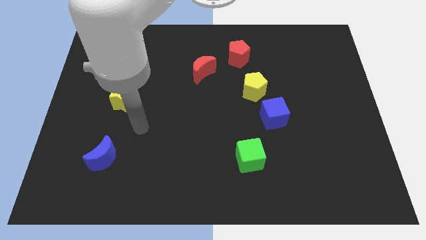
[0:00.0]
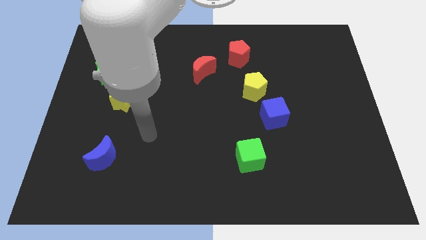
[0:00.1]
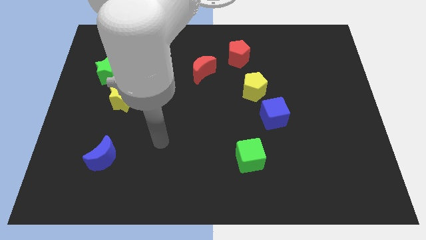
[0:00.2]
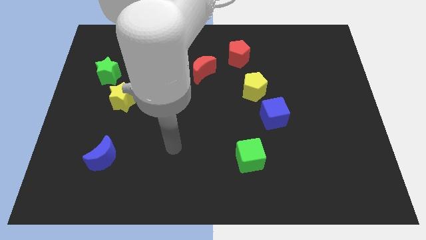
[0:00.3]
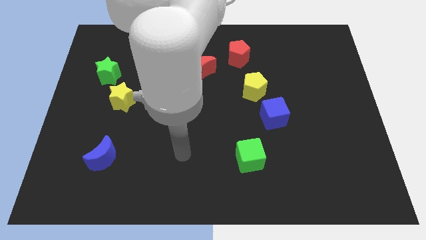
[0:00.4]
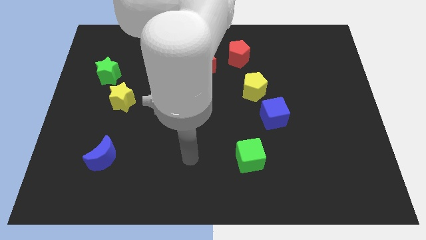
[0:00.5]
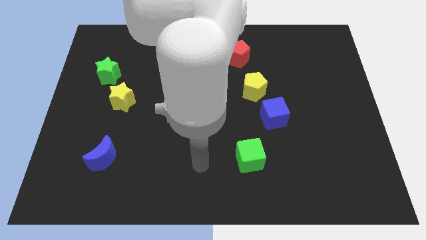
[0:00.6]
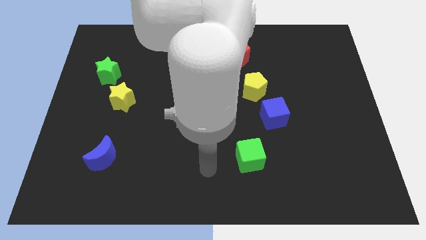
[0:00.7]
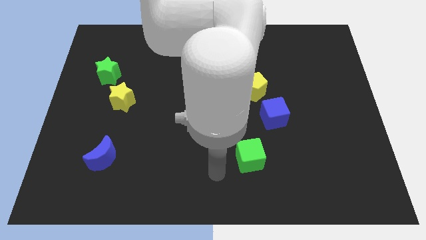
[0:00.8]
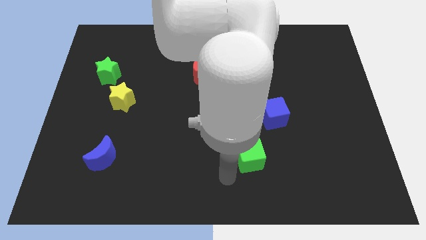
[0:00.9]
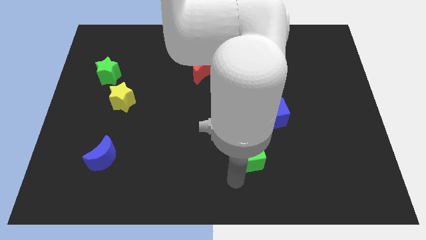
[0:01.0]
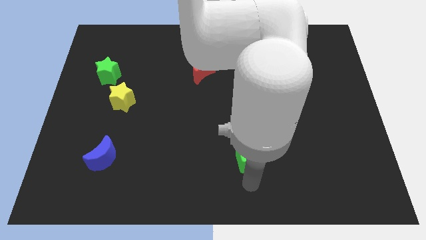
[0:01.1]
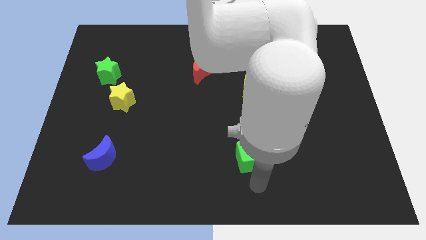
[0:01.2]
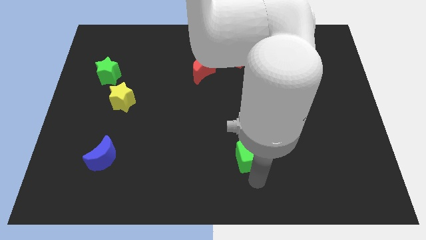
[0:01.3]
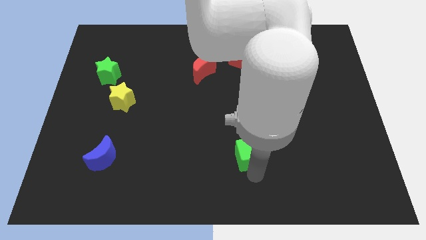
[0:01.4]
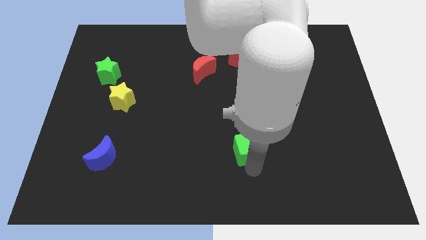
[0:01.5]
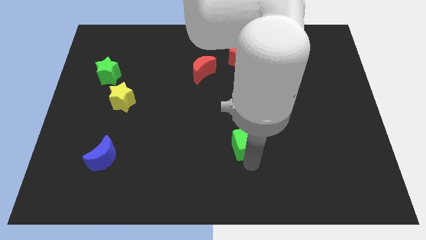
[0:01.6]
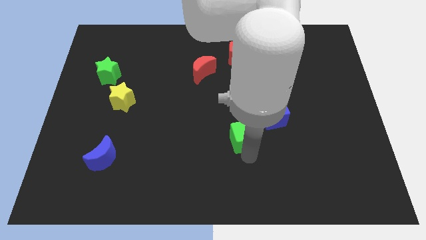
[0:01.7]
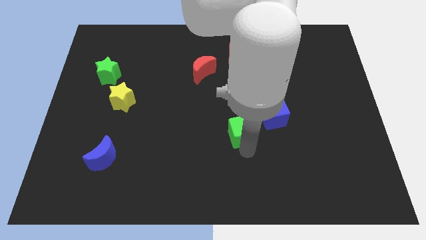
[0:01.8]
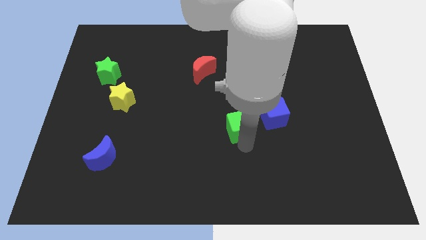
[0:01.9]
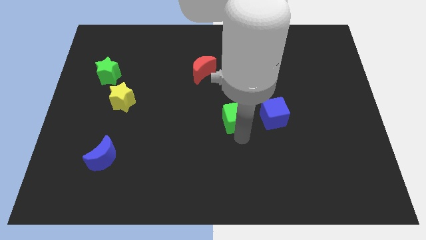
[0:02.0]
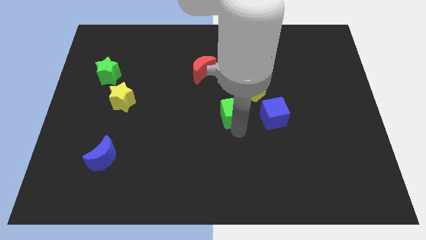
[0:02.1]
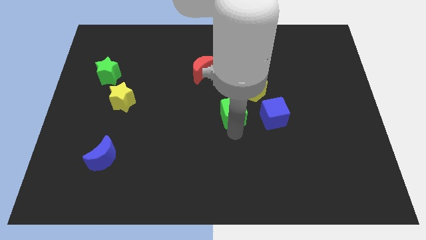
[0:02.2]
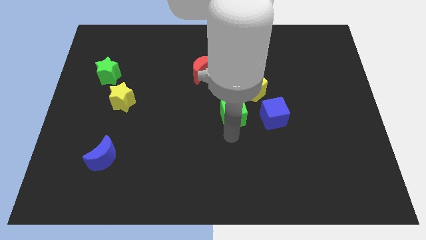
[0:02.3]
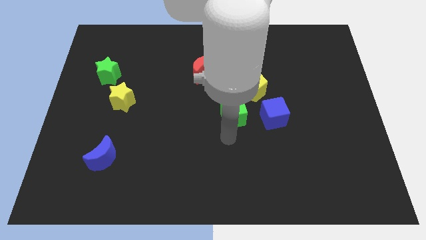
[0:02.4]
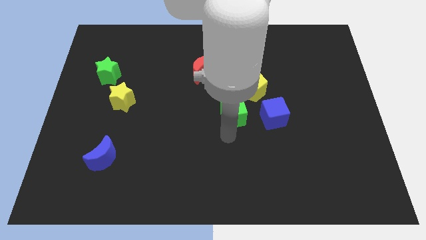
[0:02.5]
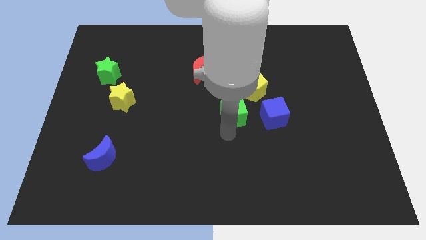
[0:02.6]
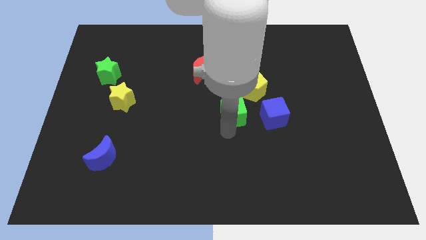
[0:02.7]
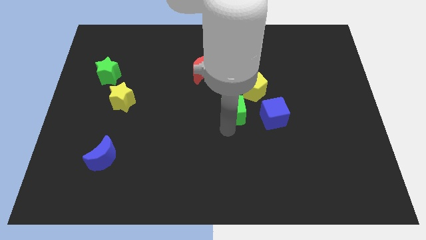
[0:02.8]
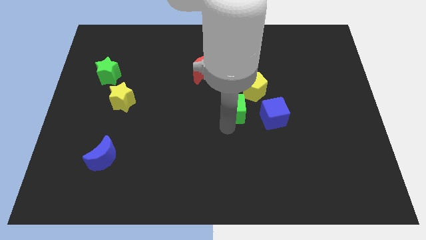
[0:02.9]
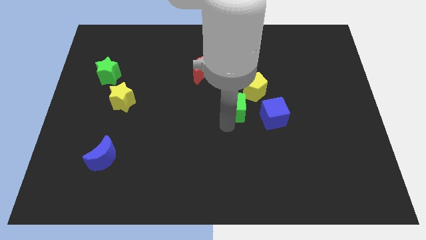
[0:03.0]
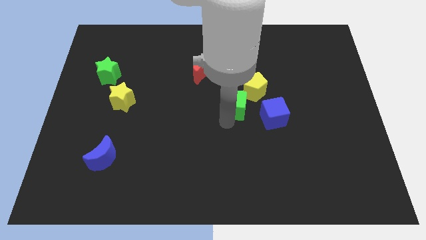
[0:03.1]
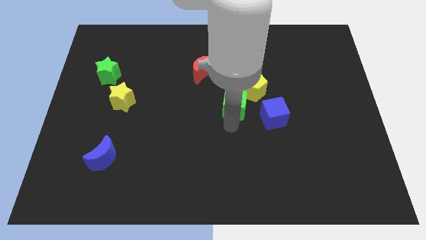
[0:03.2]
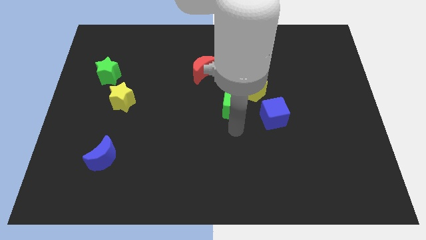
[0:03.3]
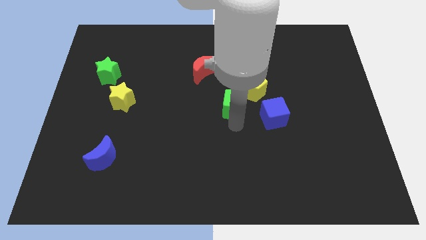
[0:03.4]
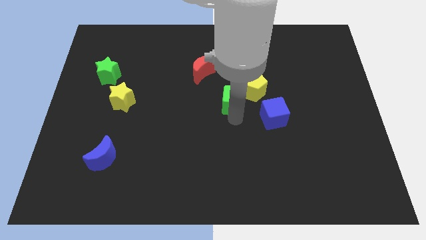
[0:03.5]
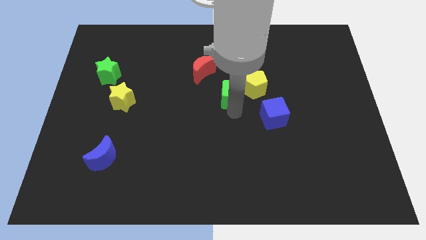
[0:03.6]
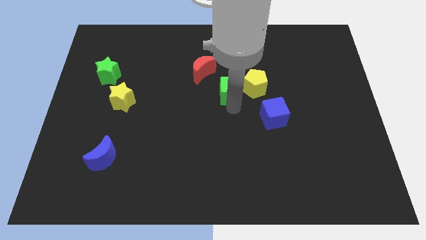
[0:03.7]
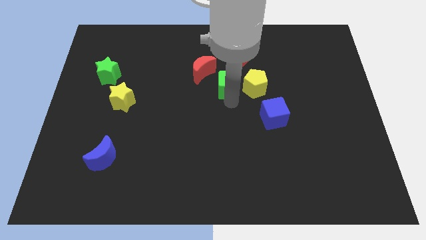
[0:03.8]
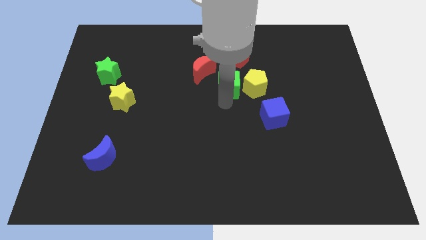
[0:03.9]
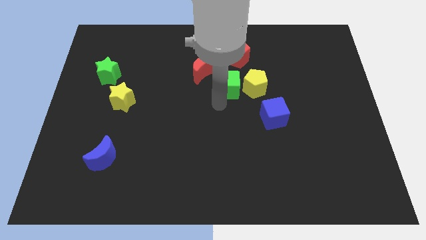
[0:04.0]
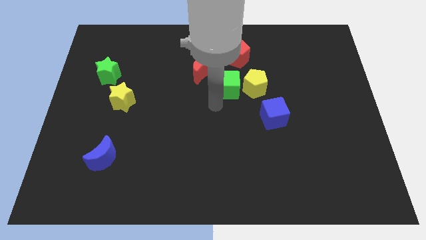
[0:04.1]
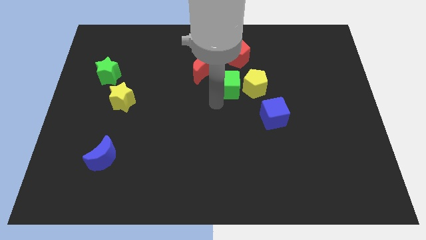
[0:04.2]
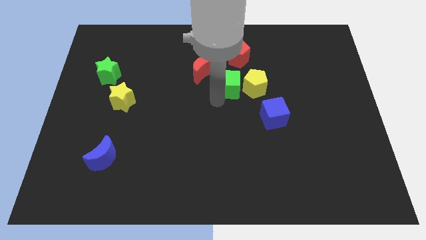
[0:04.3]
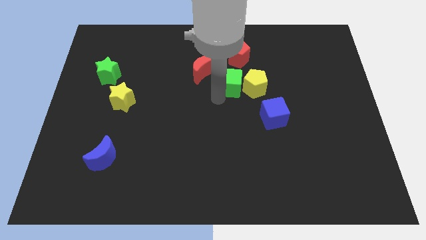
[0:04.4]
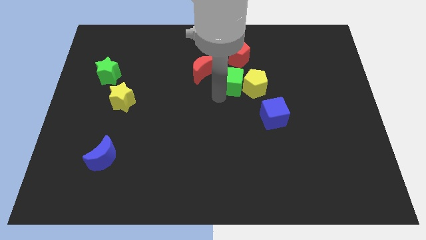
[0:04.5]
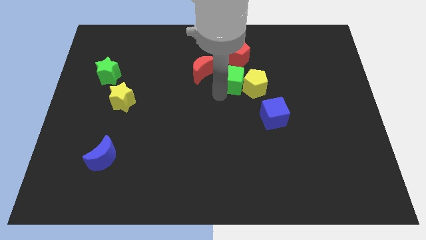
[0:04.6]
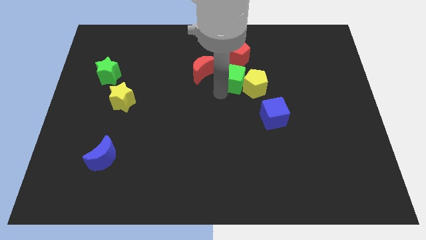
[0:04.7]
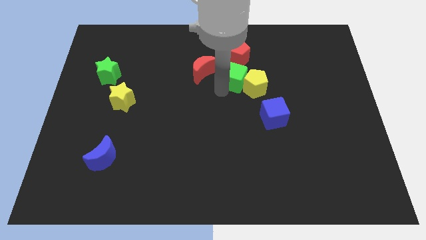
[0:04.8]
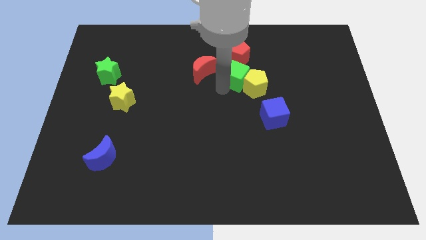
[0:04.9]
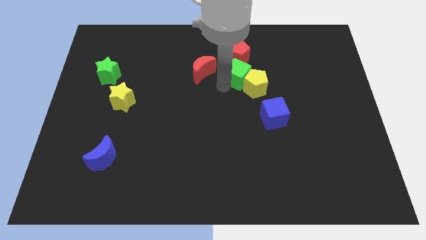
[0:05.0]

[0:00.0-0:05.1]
put the green cube above the yellow pentagon

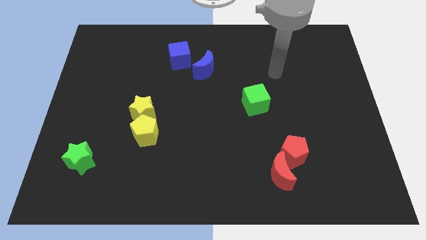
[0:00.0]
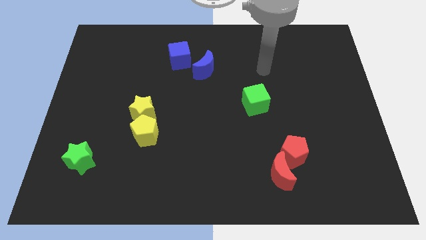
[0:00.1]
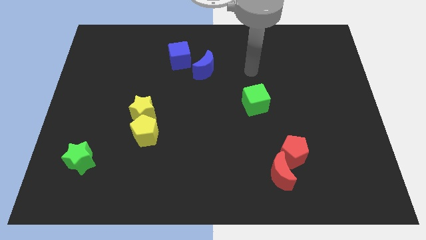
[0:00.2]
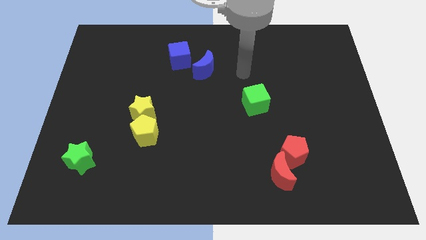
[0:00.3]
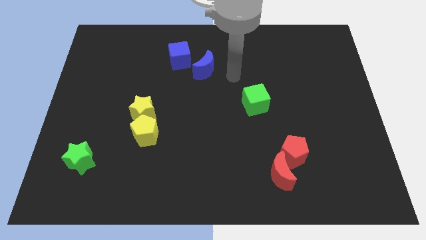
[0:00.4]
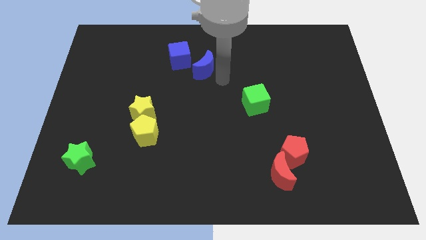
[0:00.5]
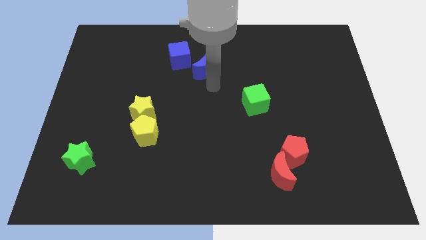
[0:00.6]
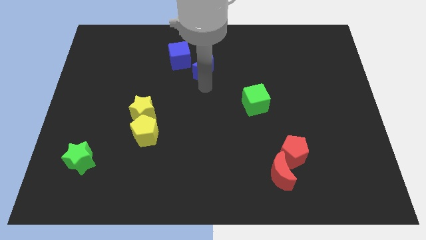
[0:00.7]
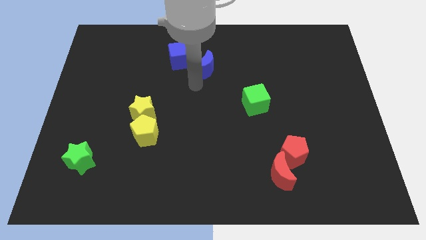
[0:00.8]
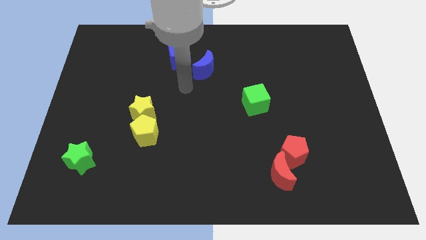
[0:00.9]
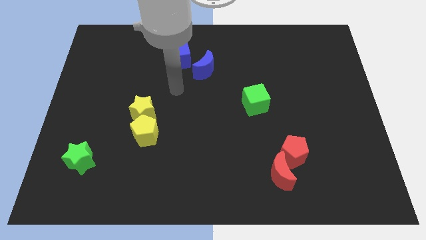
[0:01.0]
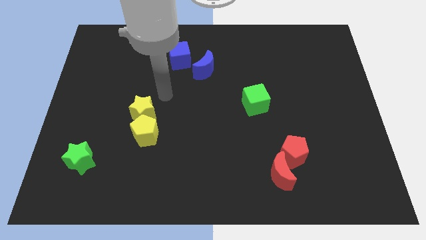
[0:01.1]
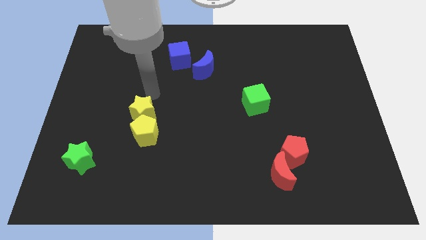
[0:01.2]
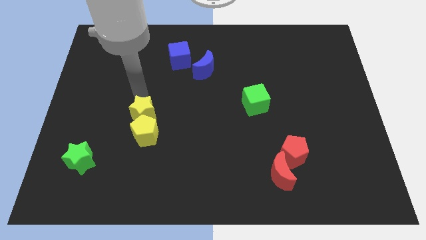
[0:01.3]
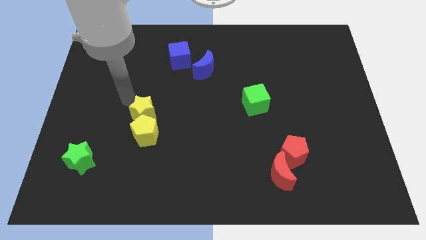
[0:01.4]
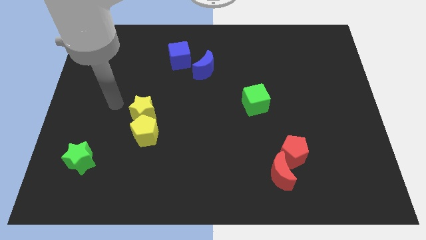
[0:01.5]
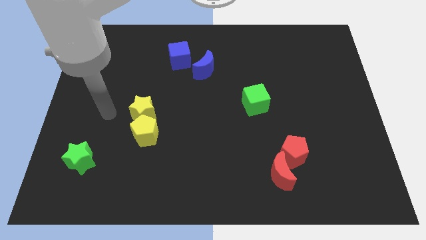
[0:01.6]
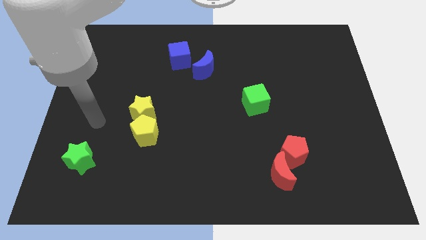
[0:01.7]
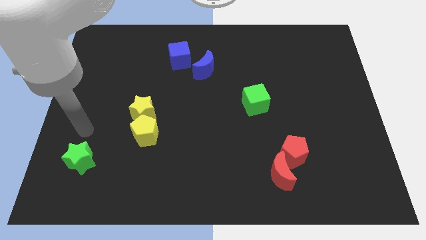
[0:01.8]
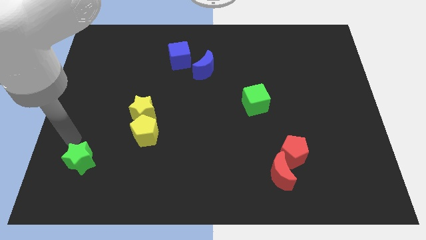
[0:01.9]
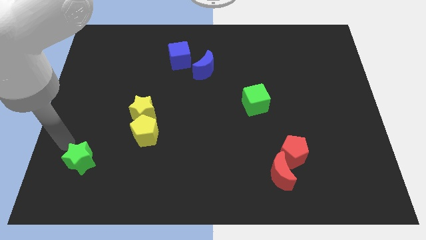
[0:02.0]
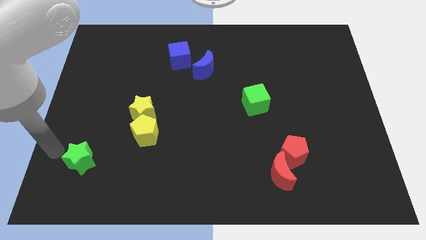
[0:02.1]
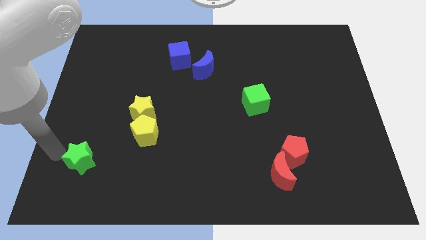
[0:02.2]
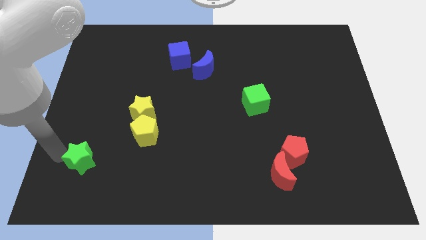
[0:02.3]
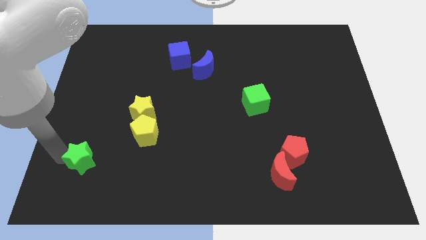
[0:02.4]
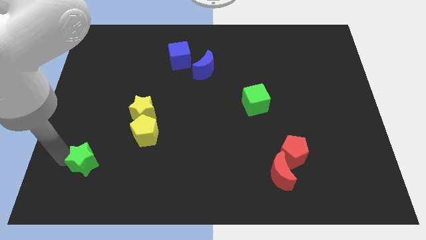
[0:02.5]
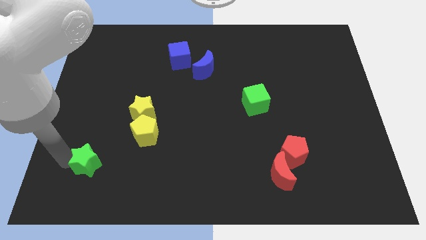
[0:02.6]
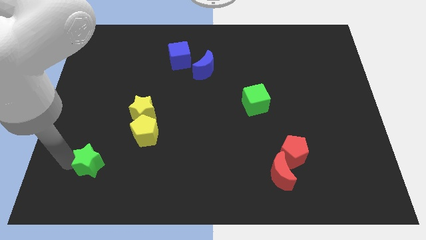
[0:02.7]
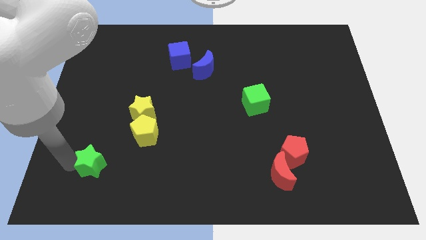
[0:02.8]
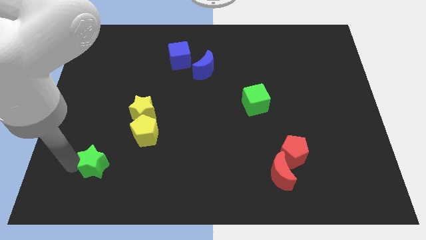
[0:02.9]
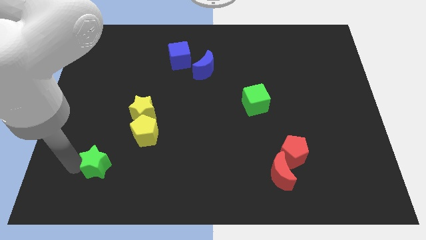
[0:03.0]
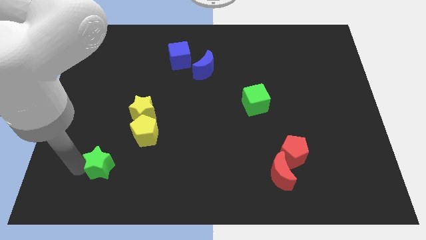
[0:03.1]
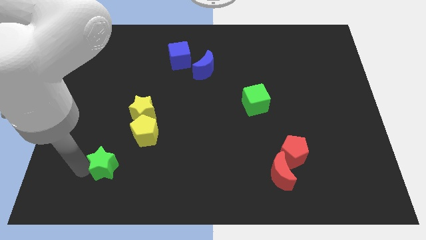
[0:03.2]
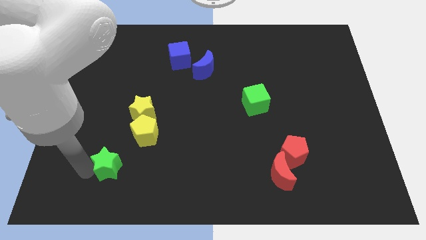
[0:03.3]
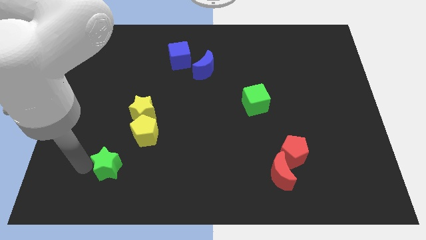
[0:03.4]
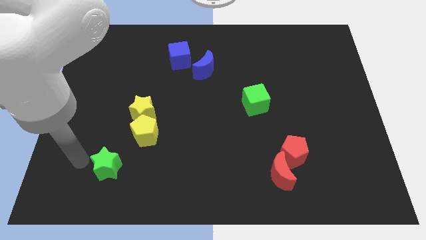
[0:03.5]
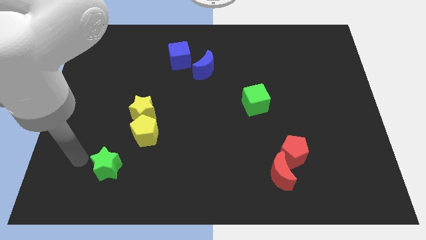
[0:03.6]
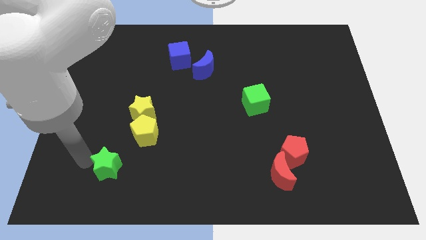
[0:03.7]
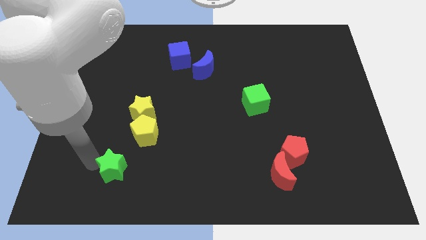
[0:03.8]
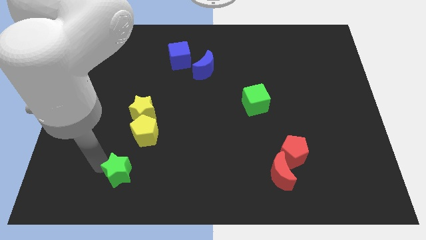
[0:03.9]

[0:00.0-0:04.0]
slide the green star to the bottom side of the yellow pentagon
